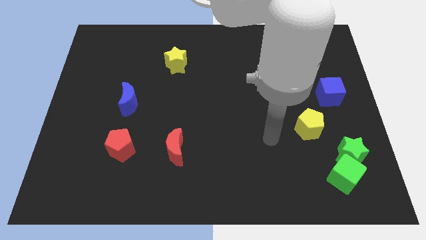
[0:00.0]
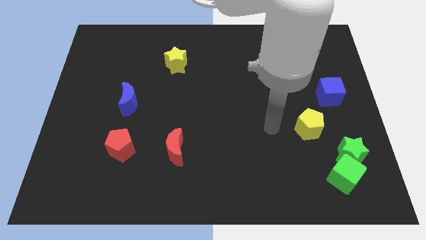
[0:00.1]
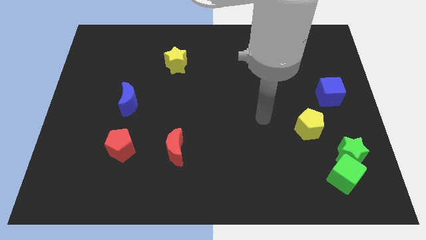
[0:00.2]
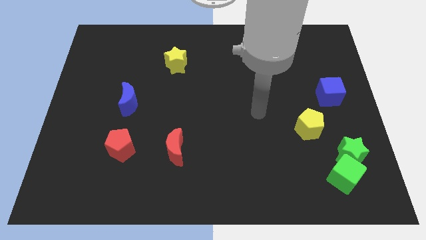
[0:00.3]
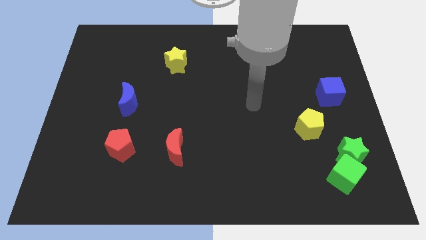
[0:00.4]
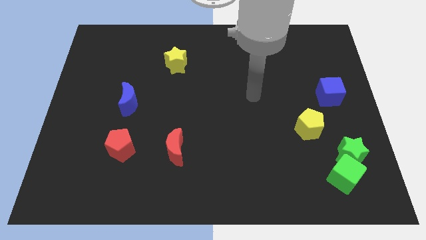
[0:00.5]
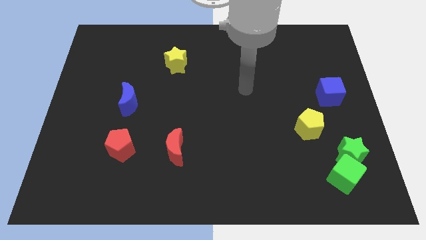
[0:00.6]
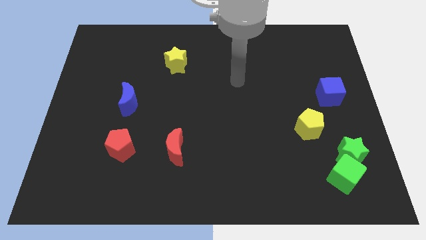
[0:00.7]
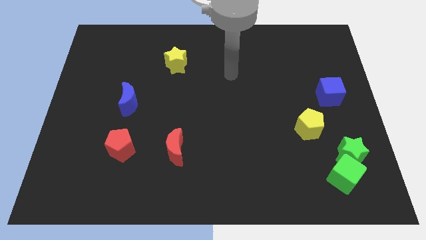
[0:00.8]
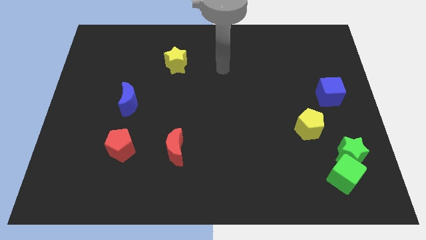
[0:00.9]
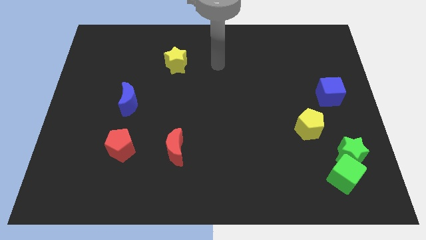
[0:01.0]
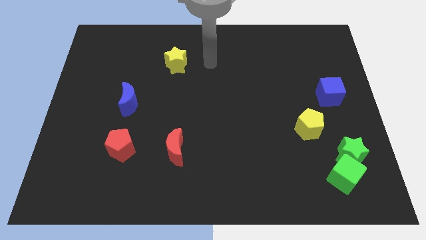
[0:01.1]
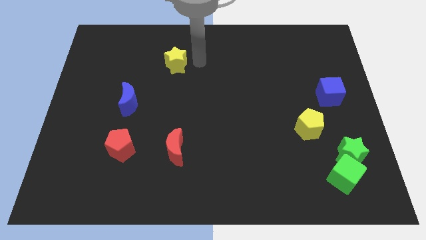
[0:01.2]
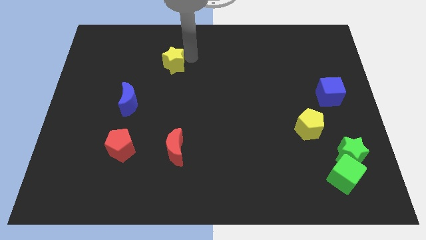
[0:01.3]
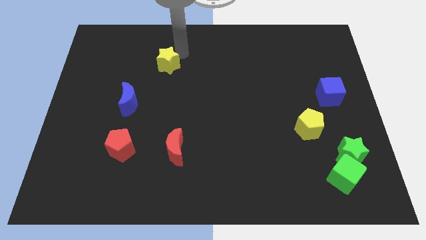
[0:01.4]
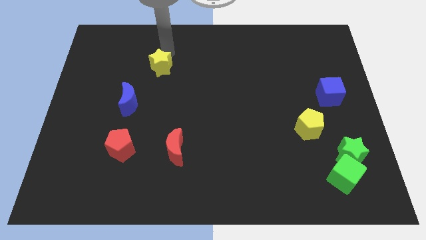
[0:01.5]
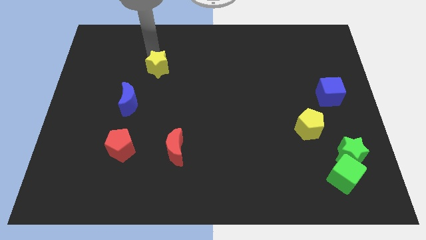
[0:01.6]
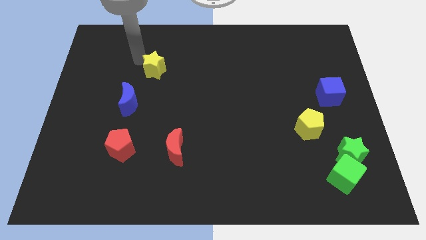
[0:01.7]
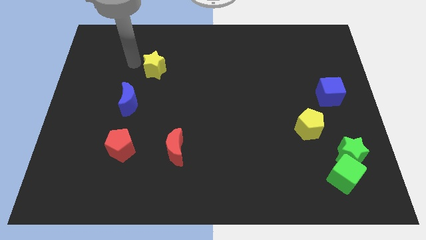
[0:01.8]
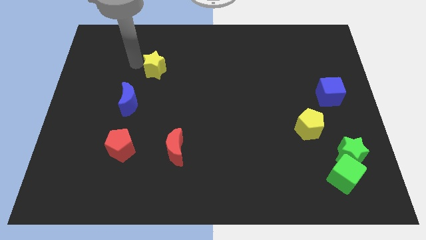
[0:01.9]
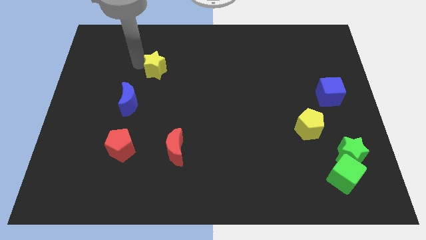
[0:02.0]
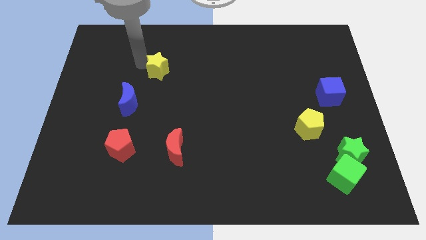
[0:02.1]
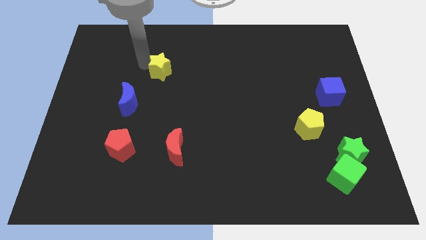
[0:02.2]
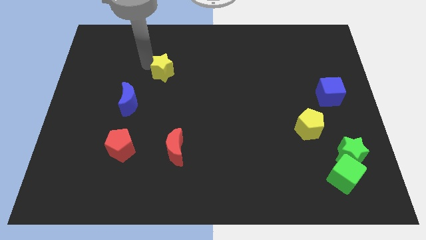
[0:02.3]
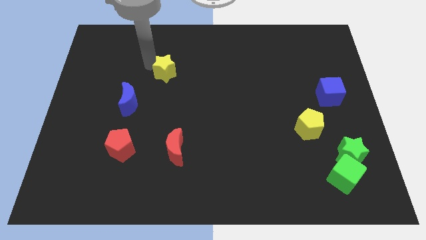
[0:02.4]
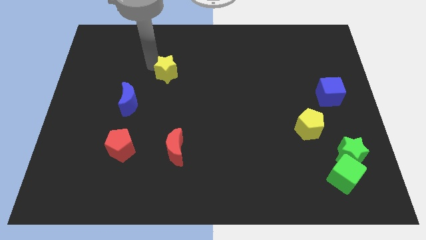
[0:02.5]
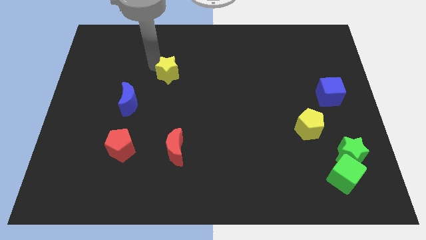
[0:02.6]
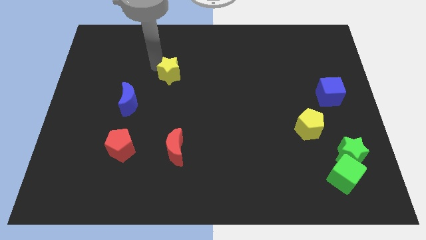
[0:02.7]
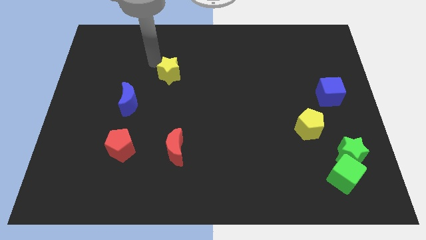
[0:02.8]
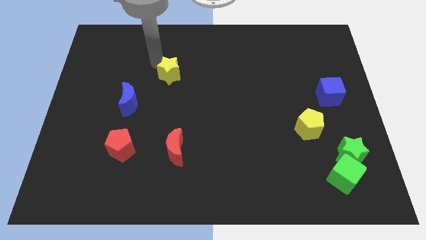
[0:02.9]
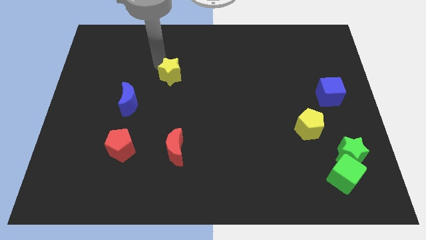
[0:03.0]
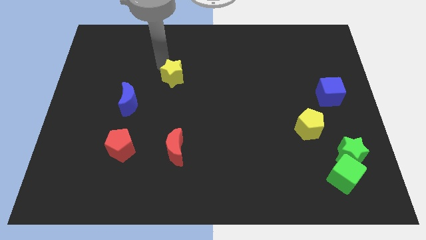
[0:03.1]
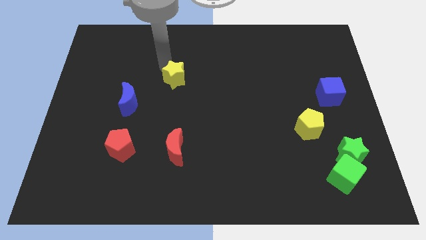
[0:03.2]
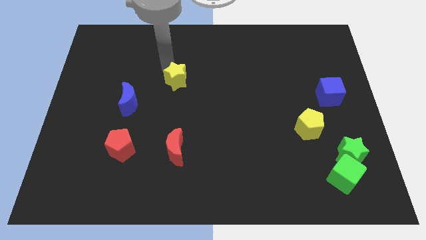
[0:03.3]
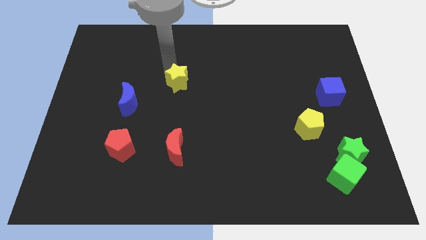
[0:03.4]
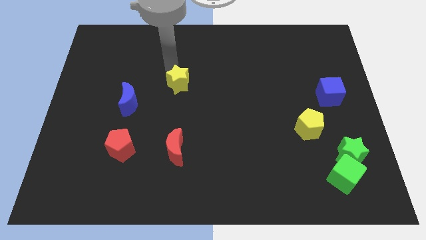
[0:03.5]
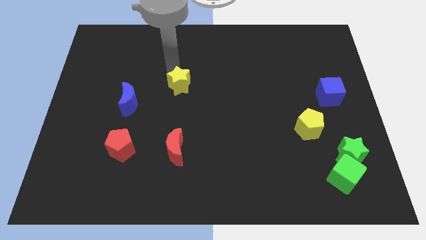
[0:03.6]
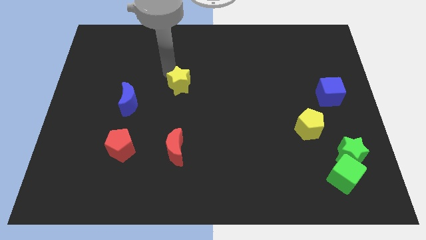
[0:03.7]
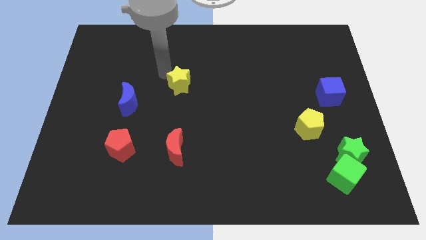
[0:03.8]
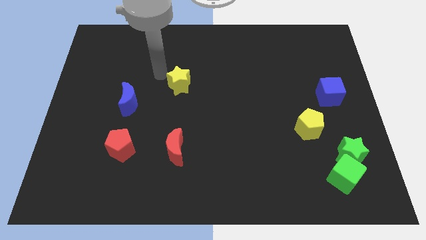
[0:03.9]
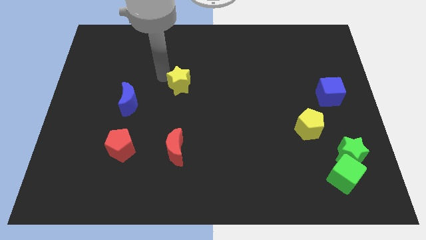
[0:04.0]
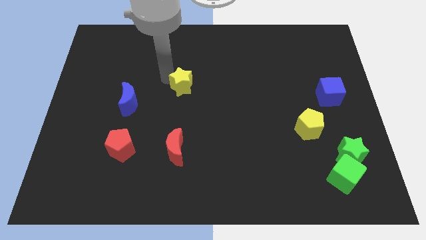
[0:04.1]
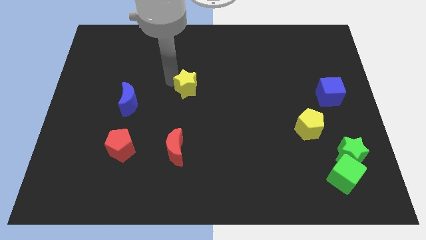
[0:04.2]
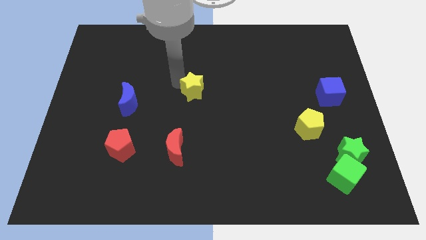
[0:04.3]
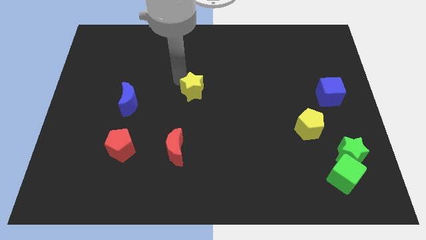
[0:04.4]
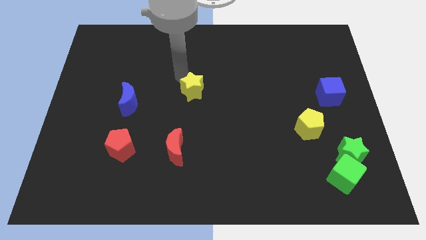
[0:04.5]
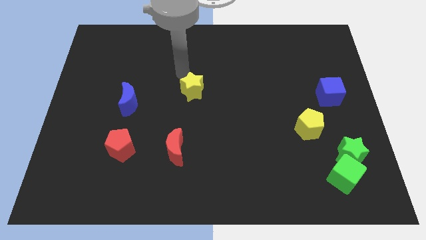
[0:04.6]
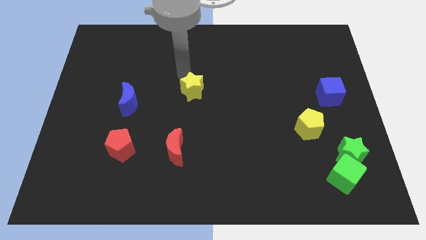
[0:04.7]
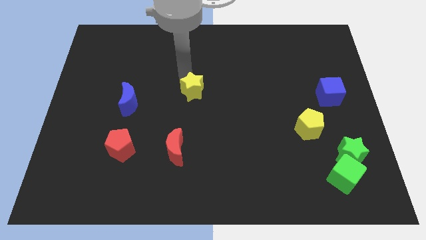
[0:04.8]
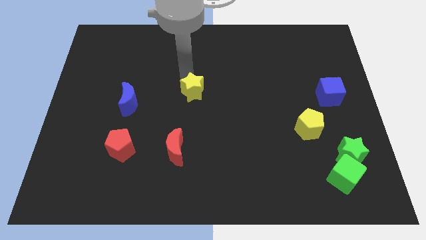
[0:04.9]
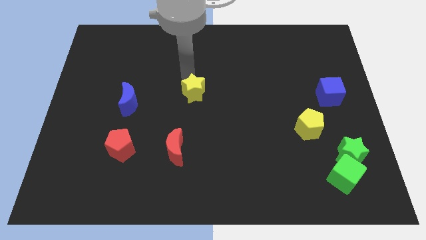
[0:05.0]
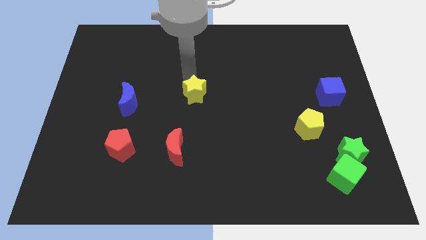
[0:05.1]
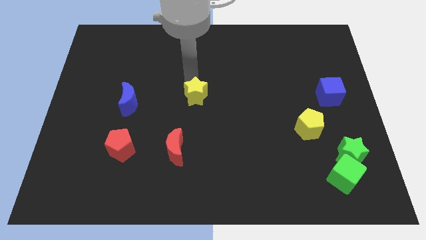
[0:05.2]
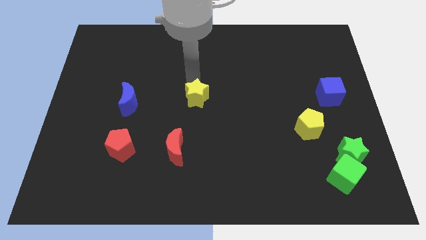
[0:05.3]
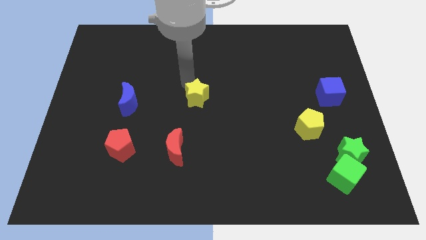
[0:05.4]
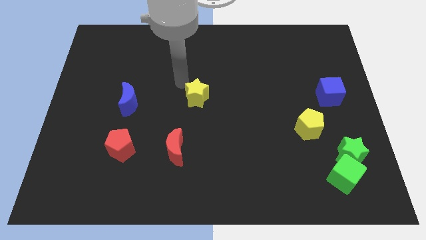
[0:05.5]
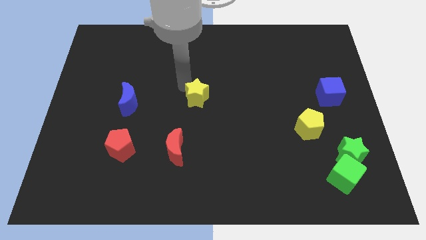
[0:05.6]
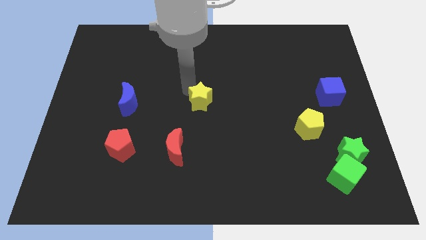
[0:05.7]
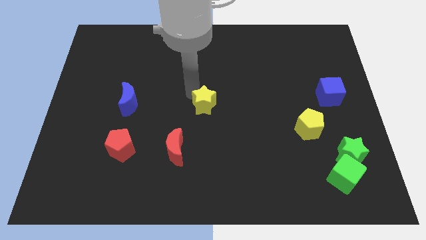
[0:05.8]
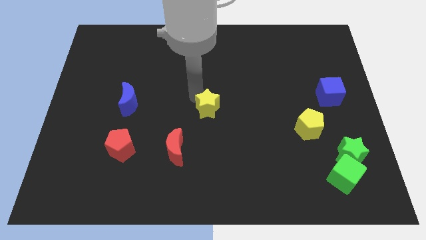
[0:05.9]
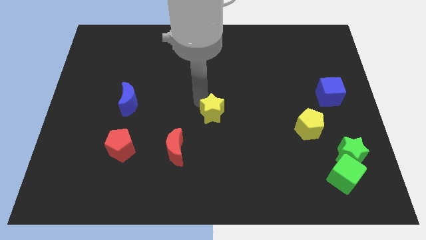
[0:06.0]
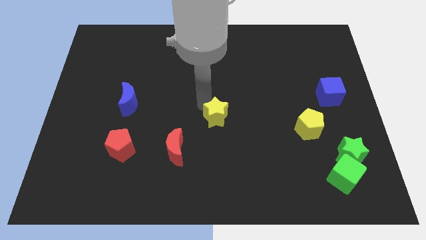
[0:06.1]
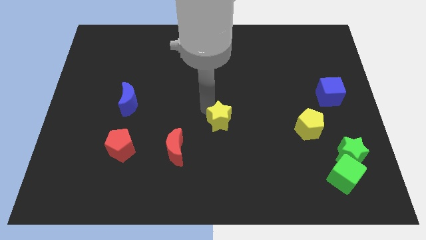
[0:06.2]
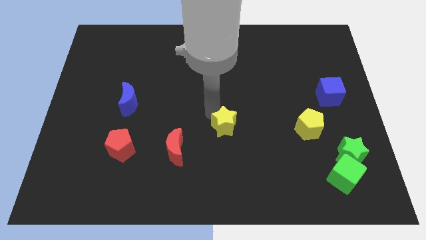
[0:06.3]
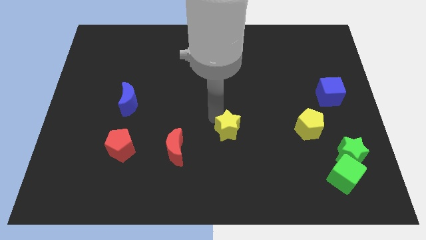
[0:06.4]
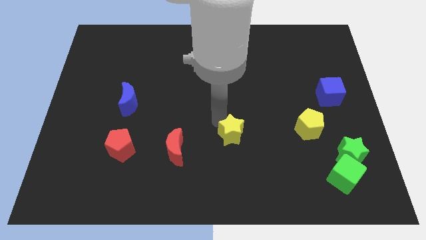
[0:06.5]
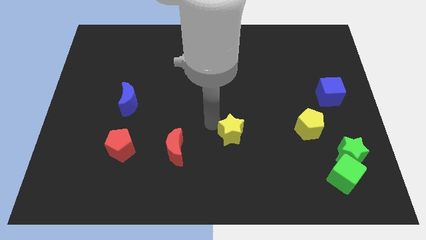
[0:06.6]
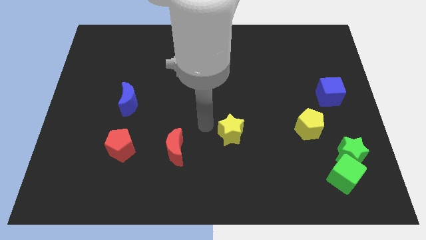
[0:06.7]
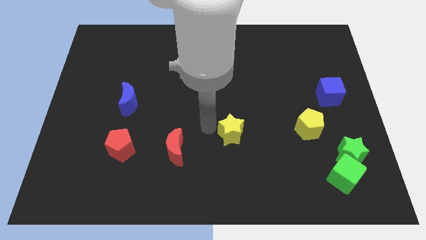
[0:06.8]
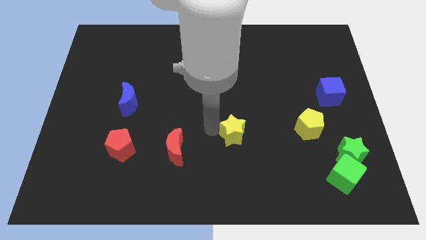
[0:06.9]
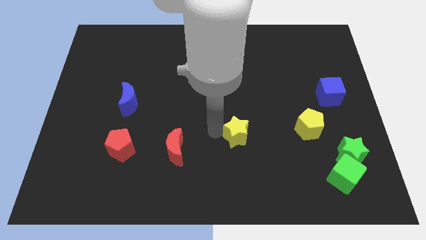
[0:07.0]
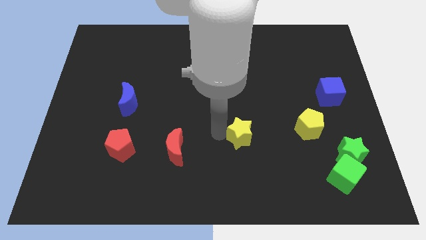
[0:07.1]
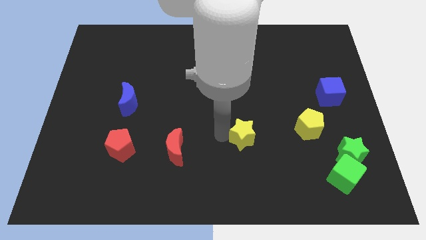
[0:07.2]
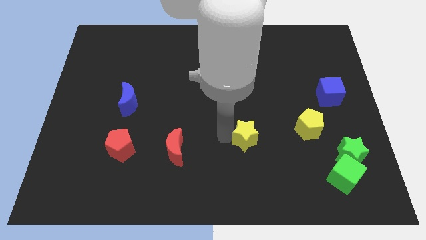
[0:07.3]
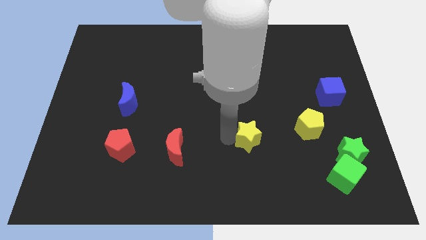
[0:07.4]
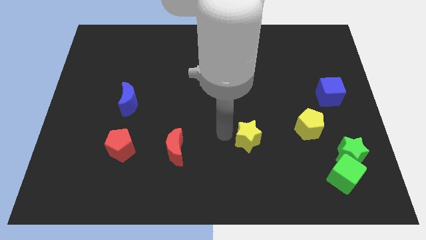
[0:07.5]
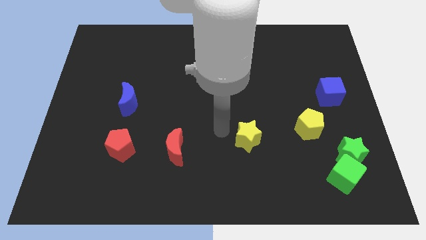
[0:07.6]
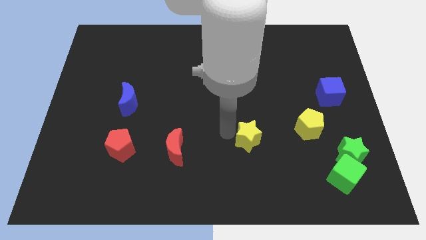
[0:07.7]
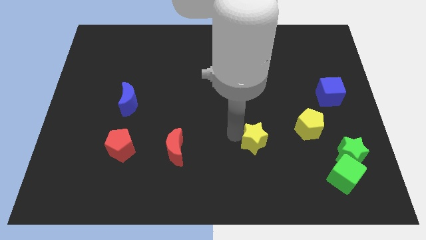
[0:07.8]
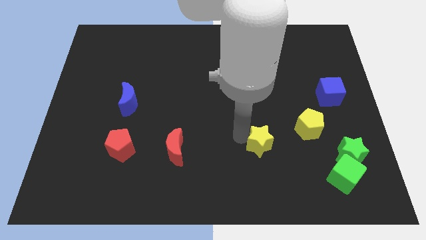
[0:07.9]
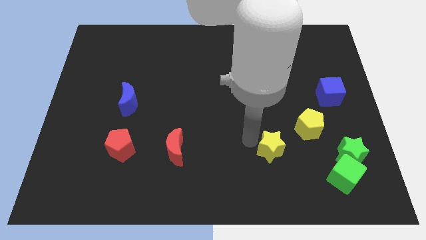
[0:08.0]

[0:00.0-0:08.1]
put the yellow star left of the green star
